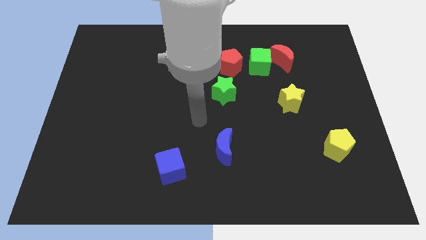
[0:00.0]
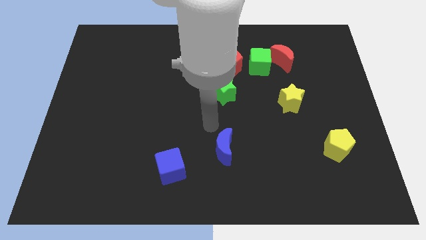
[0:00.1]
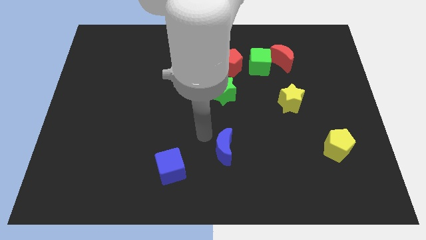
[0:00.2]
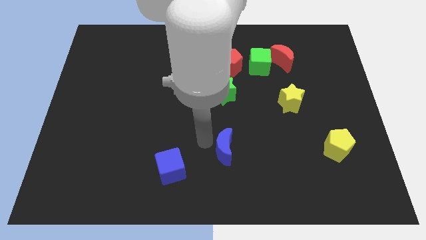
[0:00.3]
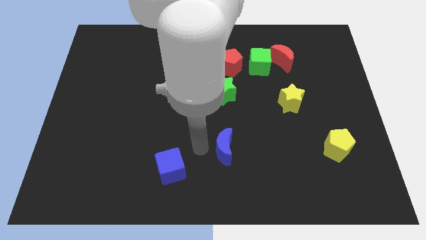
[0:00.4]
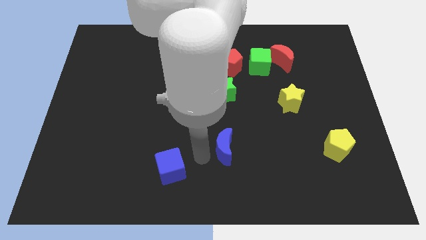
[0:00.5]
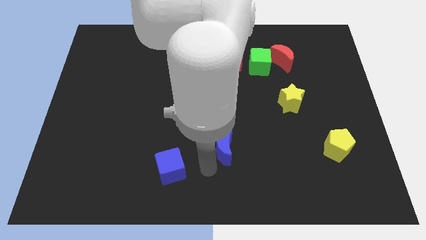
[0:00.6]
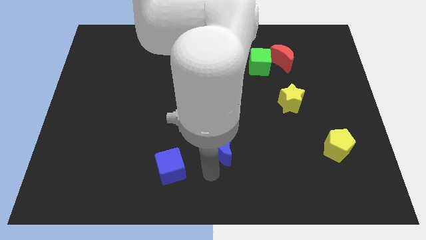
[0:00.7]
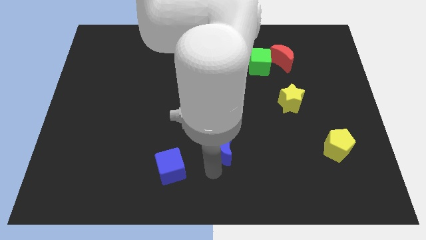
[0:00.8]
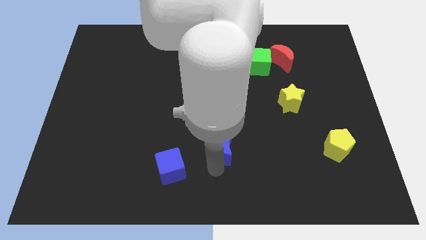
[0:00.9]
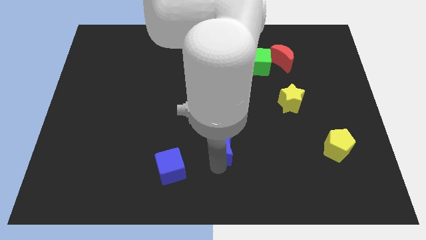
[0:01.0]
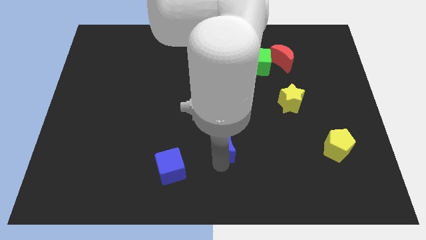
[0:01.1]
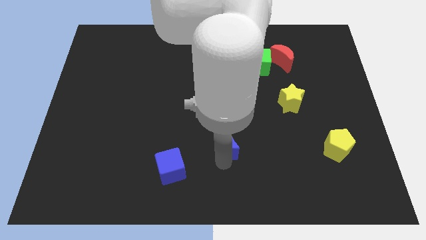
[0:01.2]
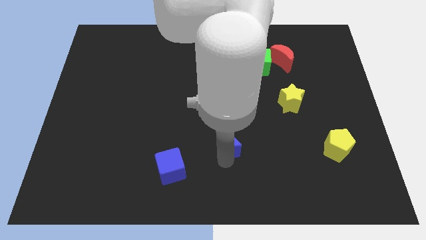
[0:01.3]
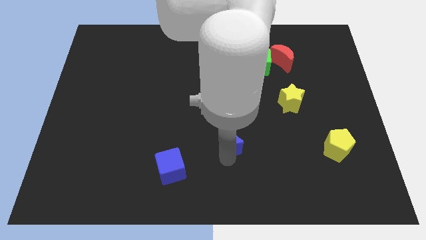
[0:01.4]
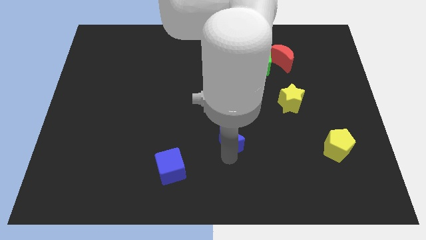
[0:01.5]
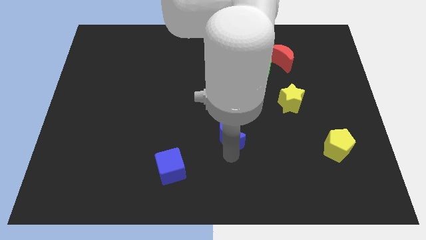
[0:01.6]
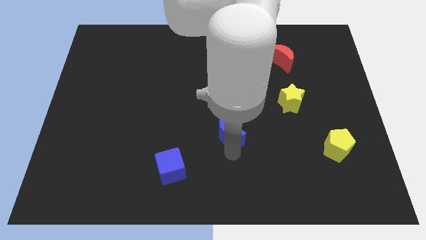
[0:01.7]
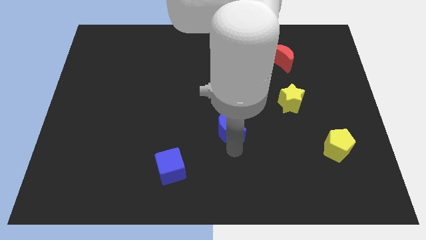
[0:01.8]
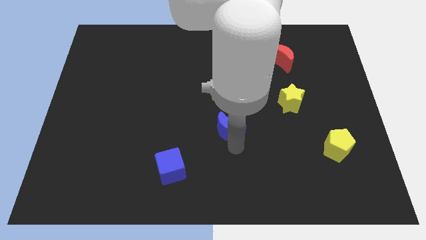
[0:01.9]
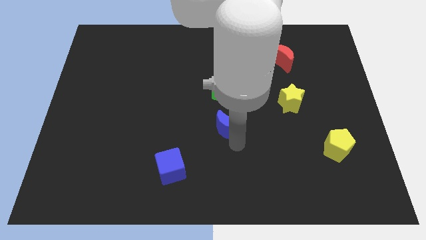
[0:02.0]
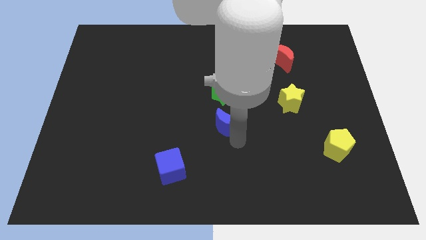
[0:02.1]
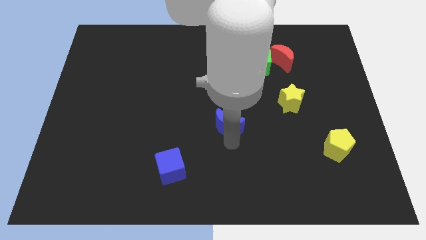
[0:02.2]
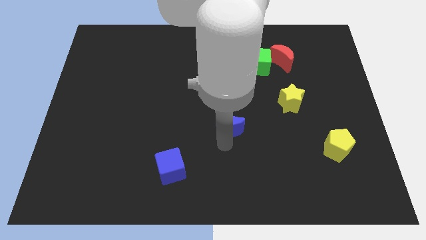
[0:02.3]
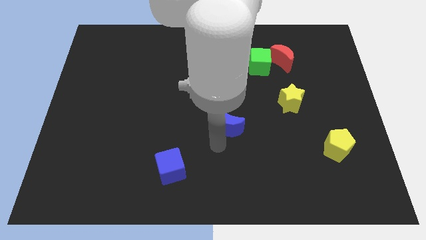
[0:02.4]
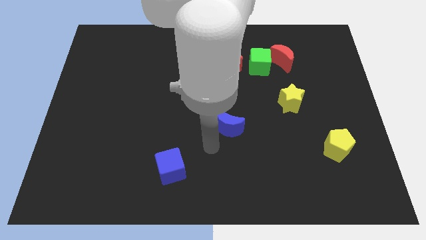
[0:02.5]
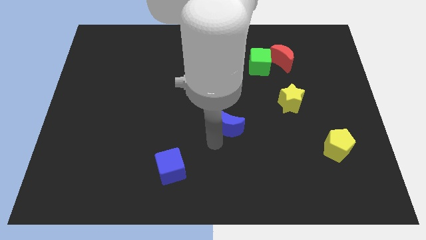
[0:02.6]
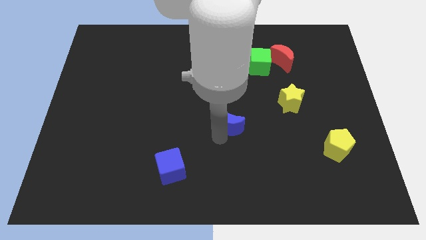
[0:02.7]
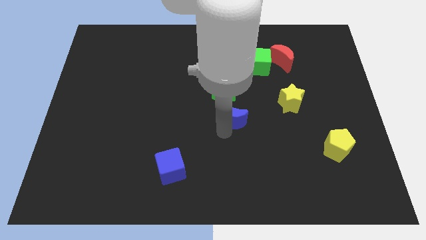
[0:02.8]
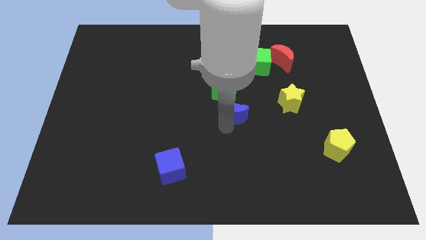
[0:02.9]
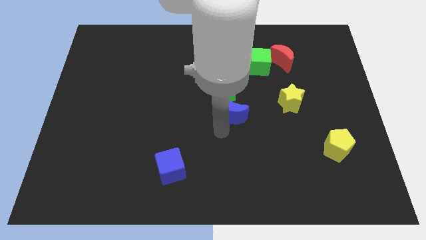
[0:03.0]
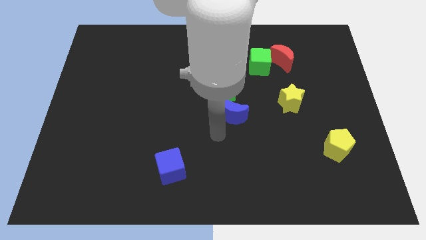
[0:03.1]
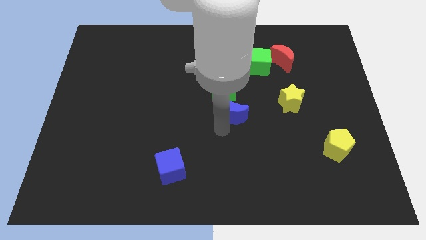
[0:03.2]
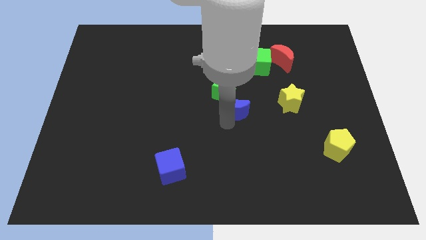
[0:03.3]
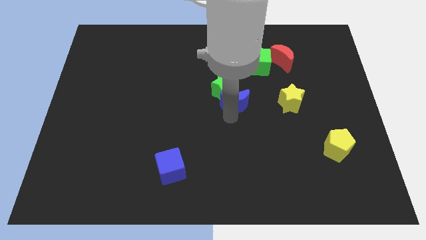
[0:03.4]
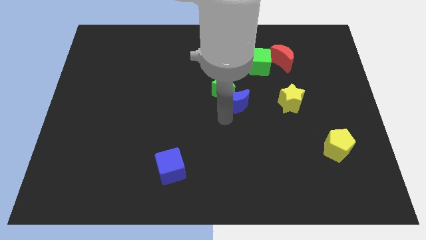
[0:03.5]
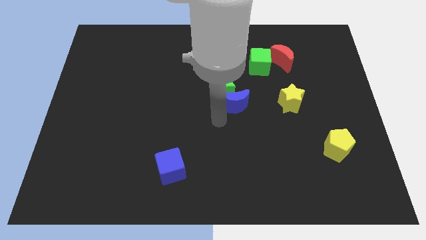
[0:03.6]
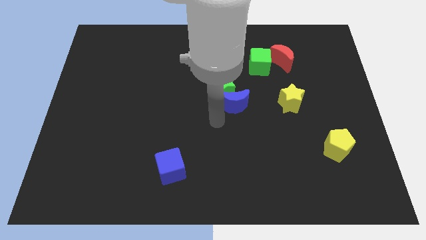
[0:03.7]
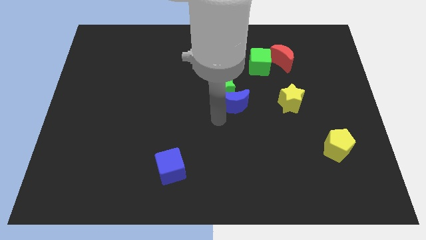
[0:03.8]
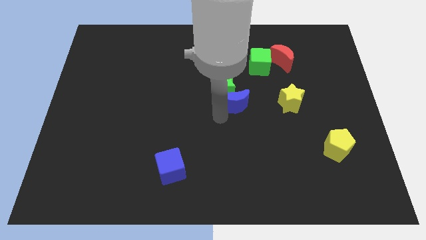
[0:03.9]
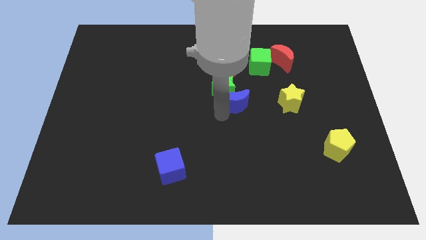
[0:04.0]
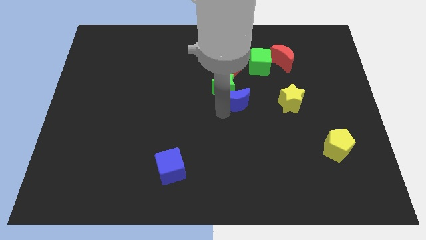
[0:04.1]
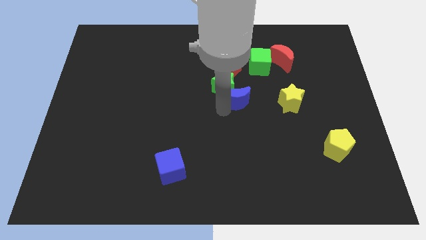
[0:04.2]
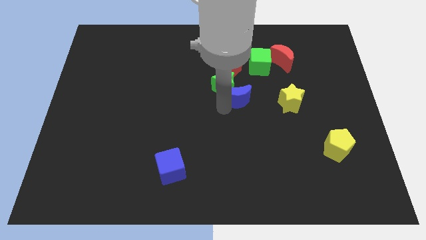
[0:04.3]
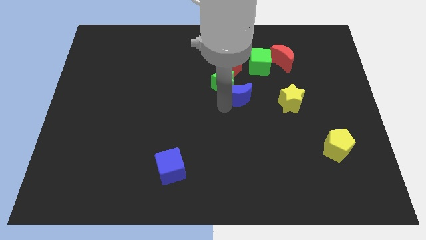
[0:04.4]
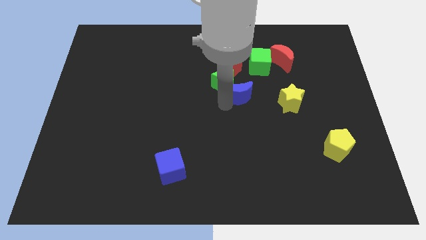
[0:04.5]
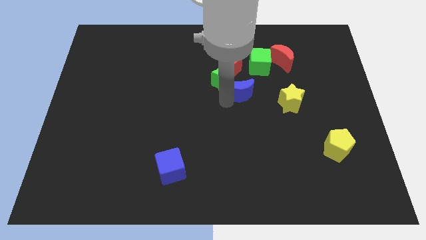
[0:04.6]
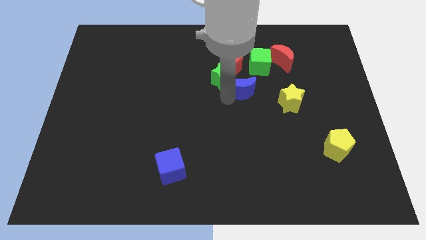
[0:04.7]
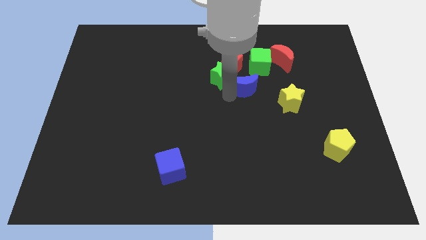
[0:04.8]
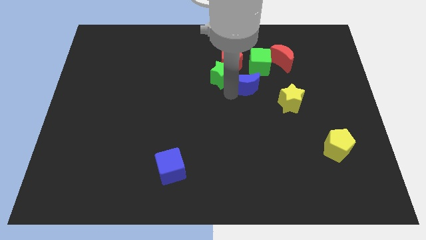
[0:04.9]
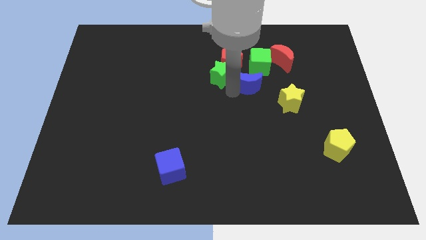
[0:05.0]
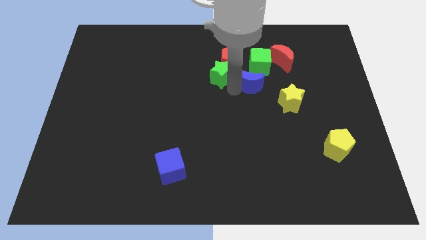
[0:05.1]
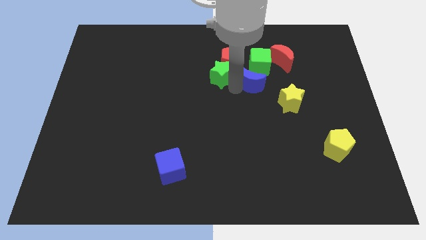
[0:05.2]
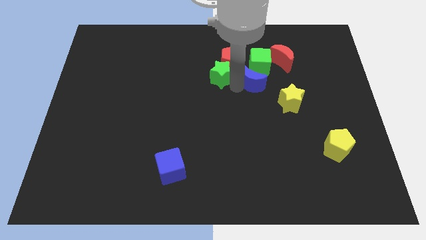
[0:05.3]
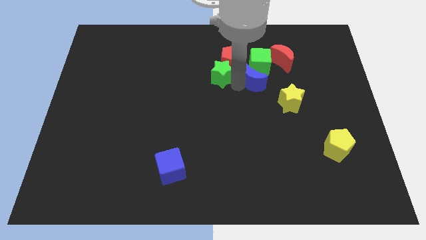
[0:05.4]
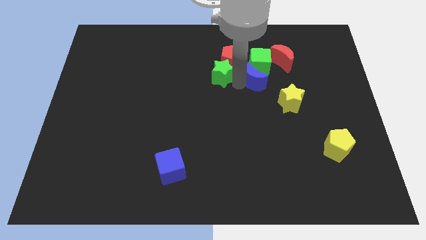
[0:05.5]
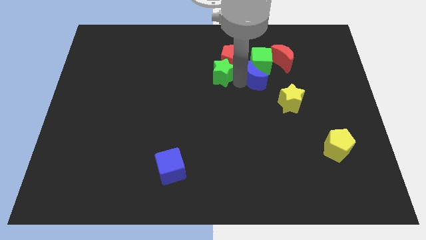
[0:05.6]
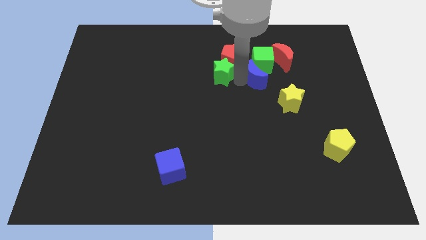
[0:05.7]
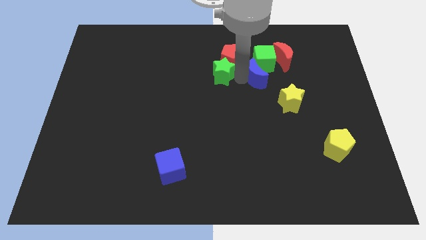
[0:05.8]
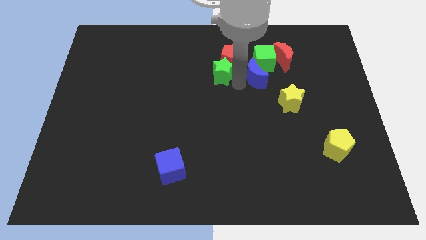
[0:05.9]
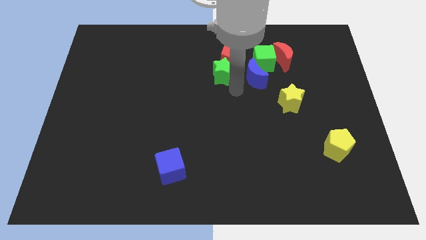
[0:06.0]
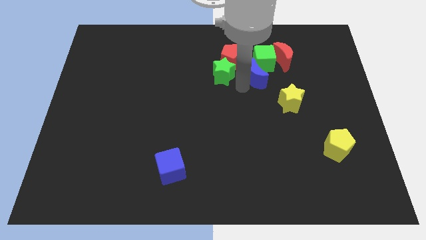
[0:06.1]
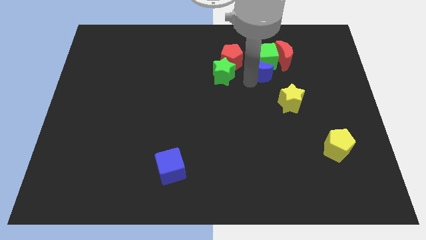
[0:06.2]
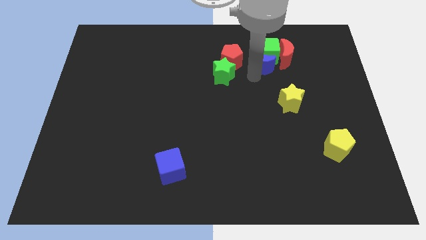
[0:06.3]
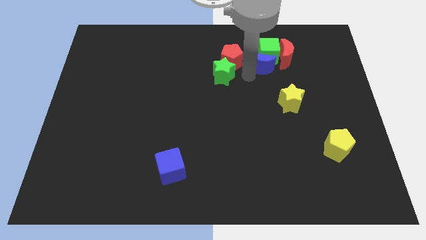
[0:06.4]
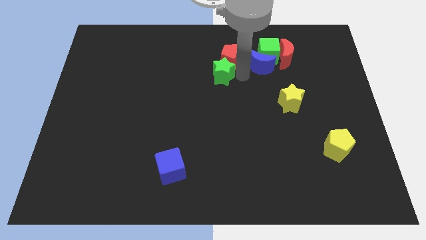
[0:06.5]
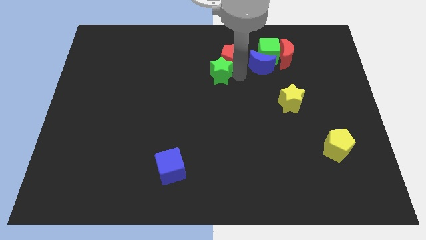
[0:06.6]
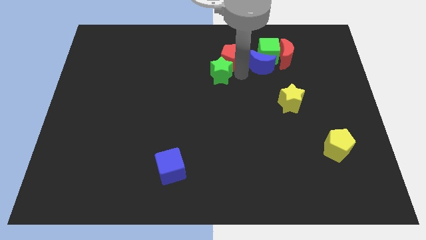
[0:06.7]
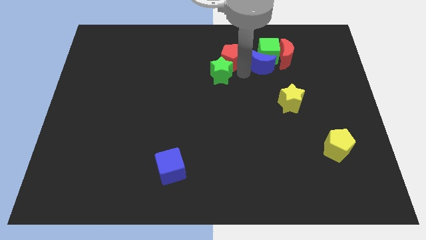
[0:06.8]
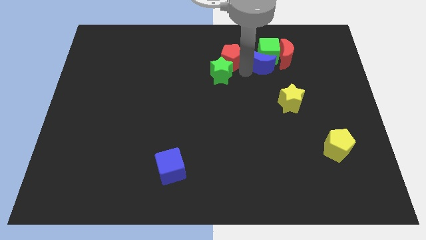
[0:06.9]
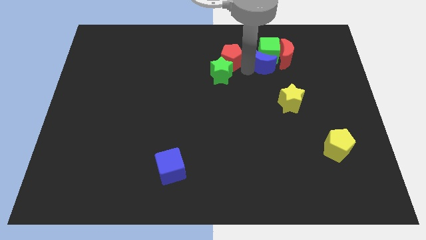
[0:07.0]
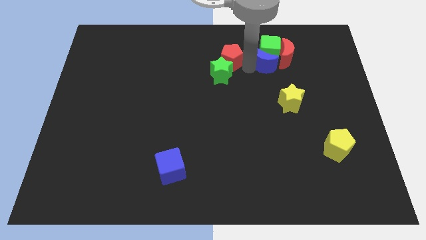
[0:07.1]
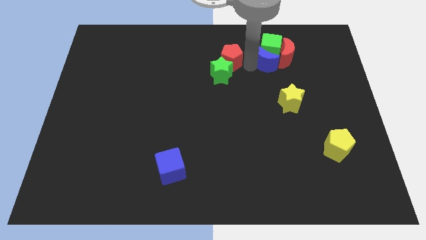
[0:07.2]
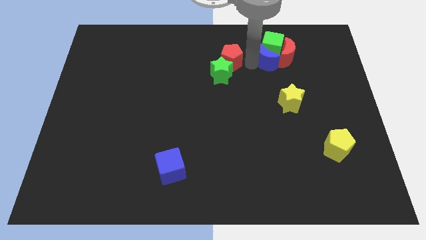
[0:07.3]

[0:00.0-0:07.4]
move the blue moon next to the red moon
